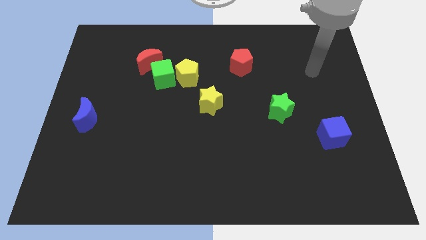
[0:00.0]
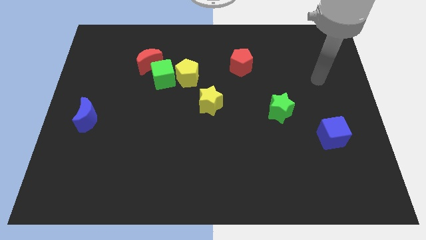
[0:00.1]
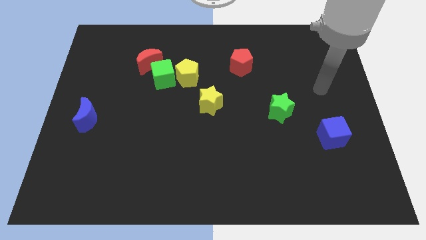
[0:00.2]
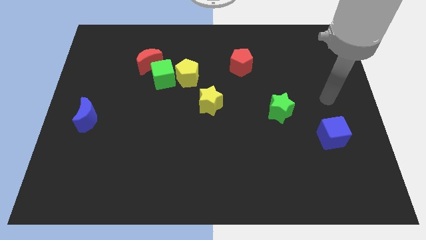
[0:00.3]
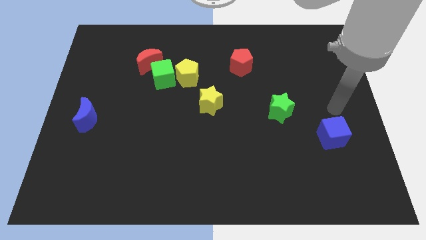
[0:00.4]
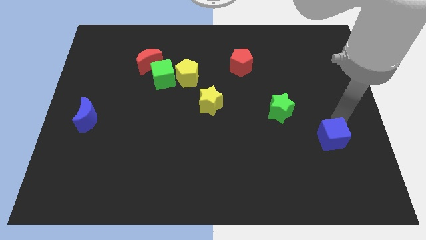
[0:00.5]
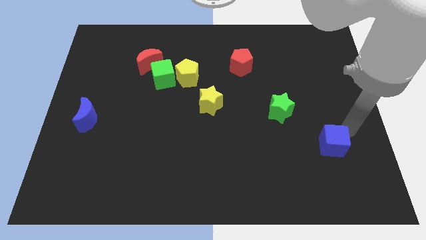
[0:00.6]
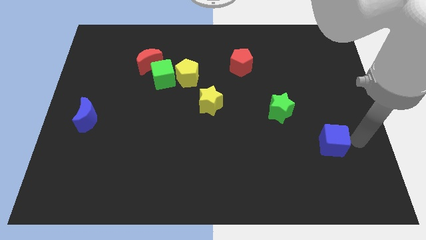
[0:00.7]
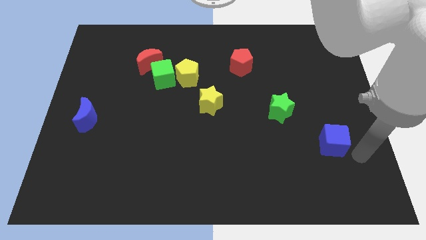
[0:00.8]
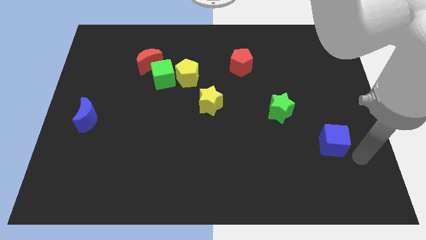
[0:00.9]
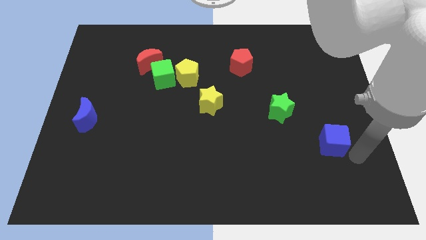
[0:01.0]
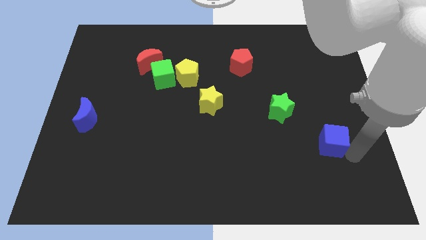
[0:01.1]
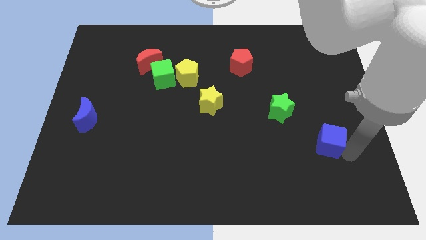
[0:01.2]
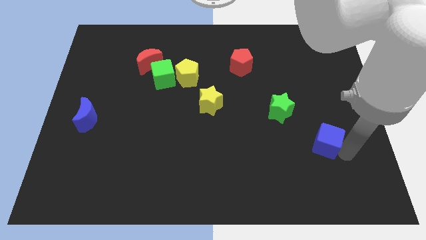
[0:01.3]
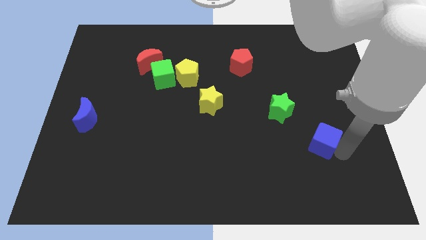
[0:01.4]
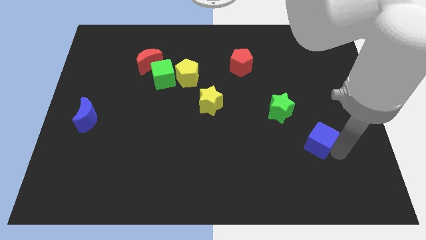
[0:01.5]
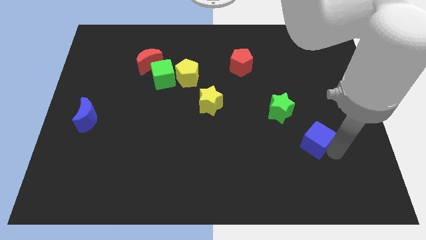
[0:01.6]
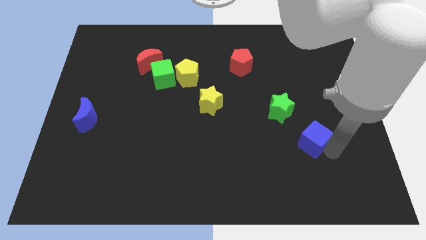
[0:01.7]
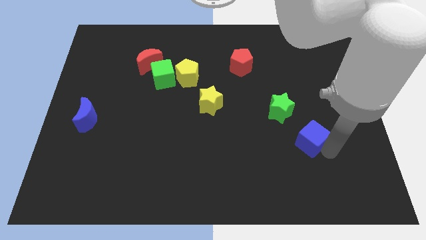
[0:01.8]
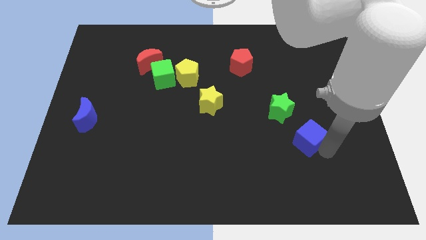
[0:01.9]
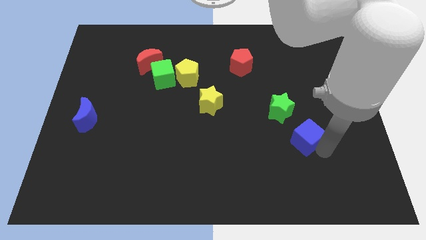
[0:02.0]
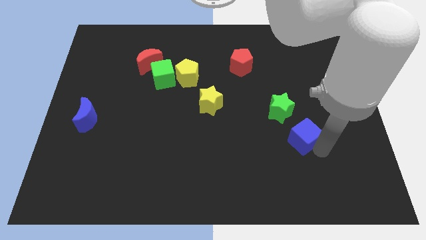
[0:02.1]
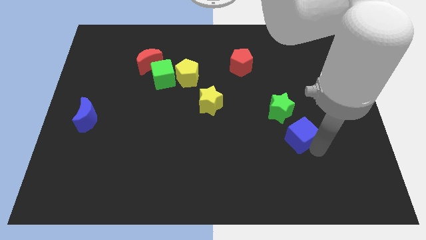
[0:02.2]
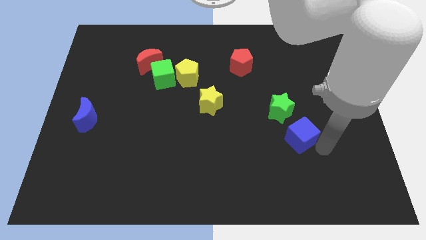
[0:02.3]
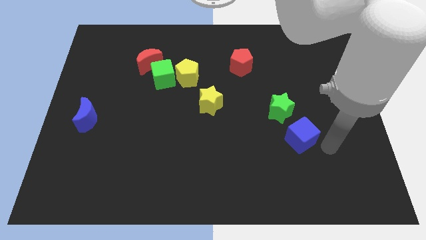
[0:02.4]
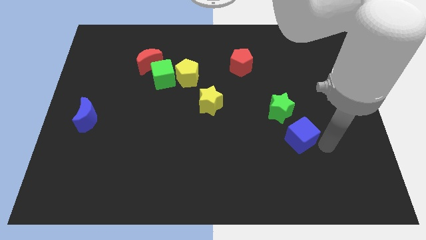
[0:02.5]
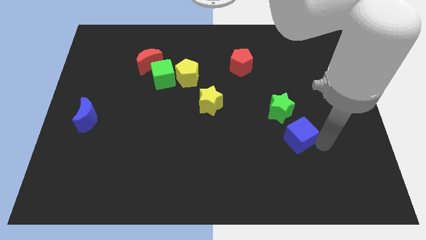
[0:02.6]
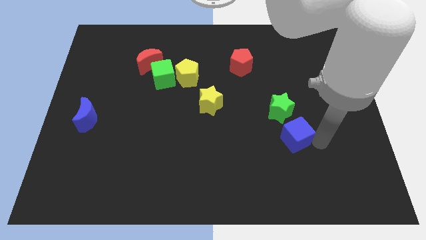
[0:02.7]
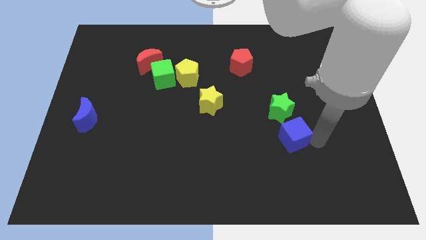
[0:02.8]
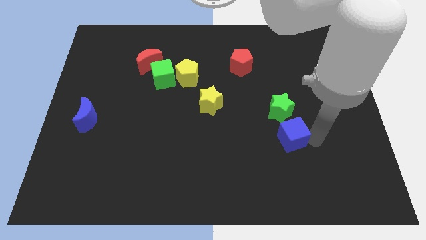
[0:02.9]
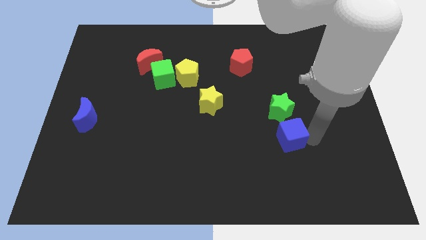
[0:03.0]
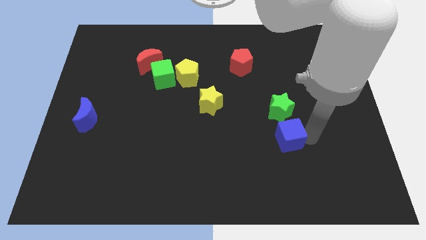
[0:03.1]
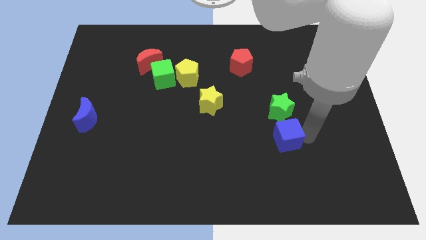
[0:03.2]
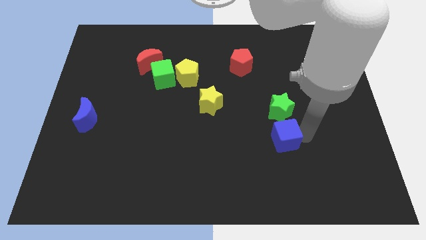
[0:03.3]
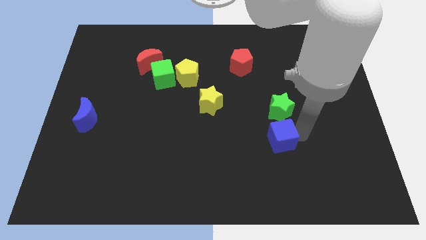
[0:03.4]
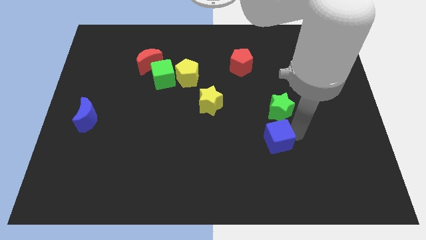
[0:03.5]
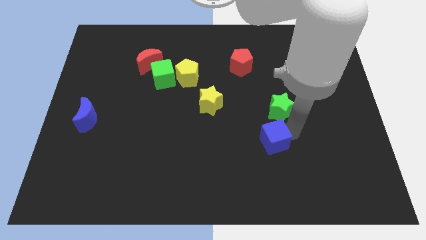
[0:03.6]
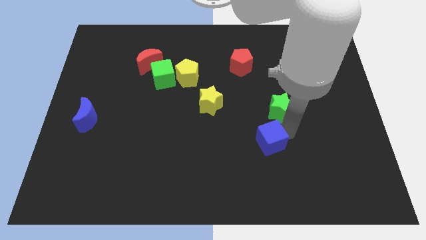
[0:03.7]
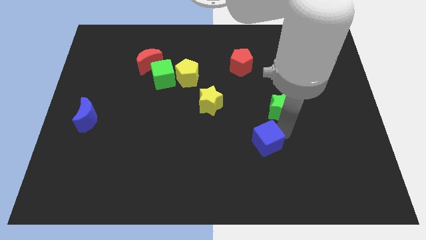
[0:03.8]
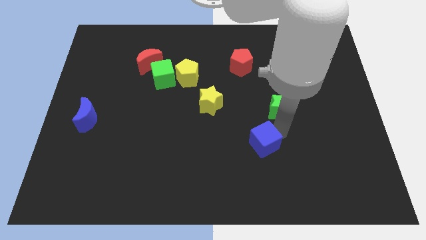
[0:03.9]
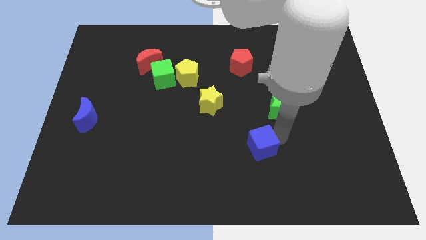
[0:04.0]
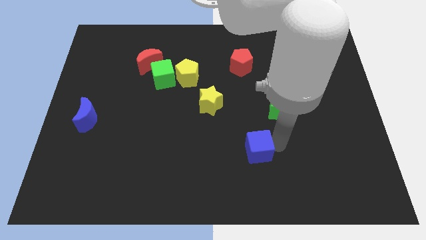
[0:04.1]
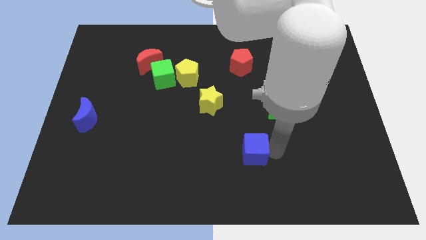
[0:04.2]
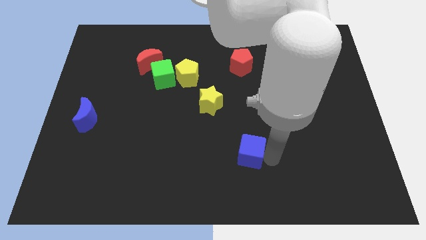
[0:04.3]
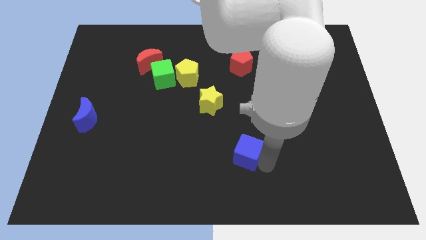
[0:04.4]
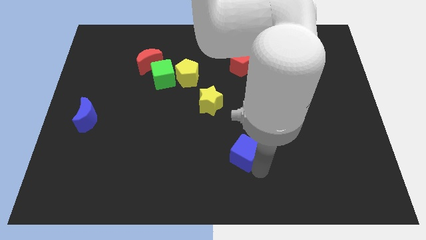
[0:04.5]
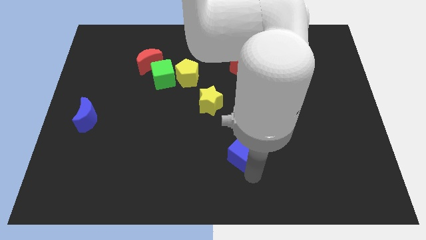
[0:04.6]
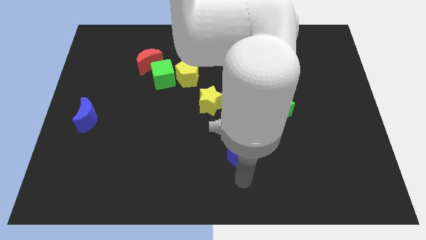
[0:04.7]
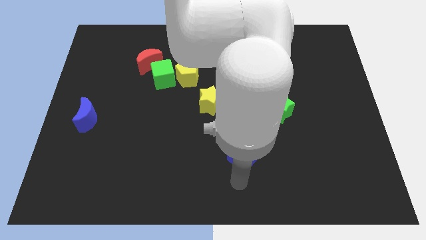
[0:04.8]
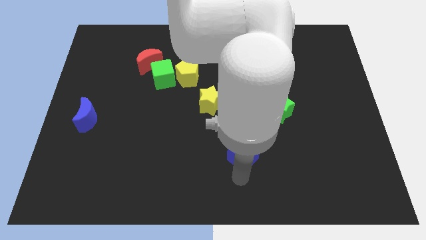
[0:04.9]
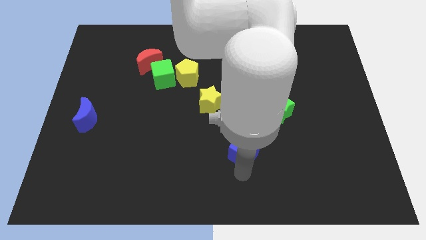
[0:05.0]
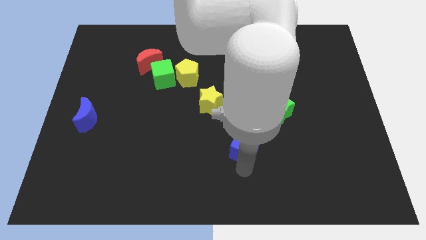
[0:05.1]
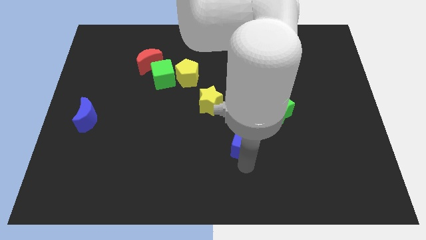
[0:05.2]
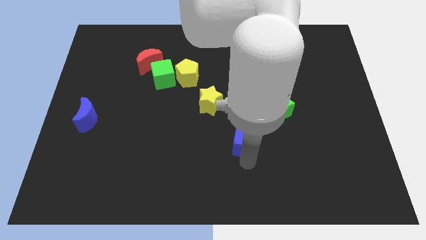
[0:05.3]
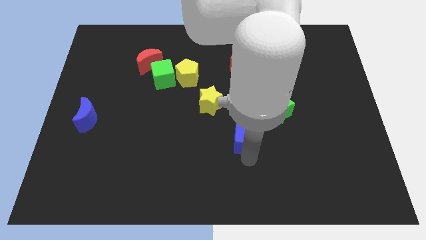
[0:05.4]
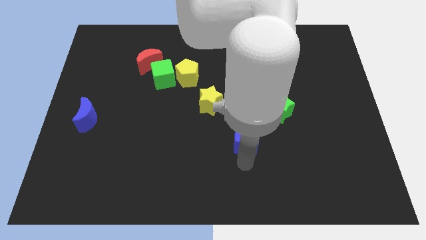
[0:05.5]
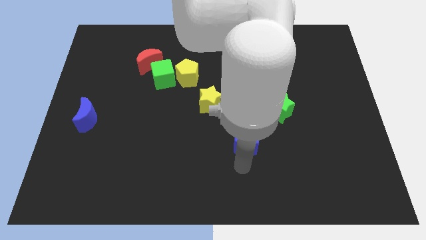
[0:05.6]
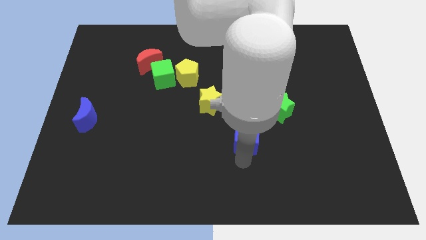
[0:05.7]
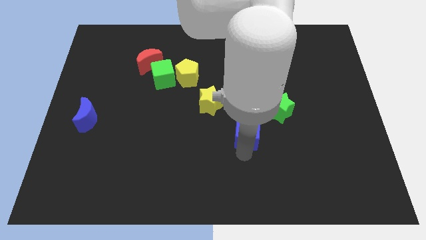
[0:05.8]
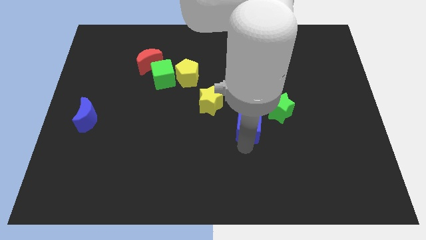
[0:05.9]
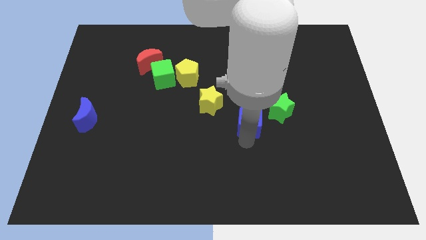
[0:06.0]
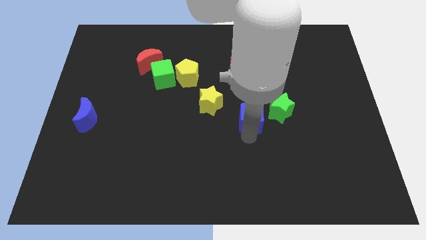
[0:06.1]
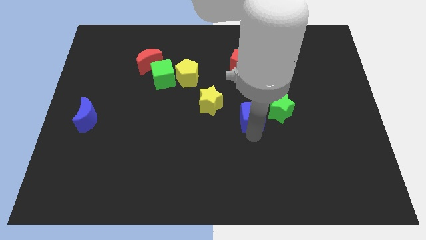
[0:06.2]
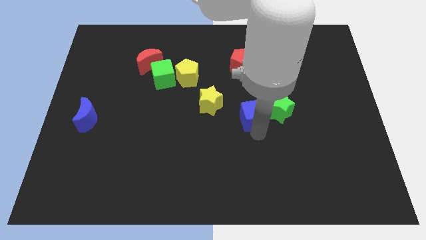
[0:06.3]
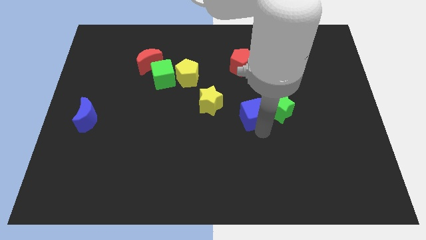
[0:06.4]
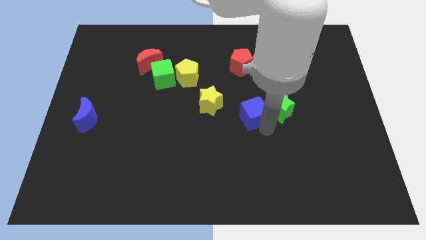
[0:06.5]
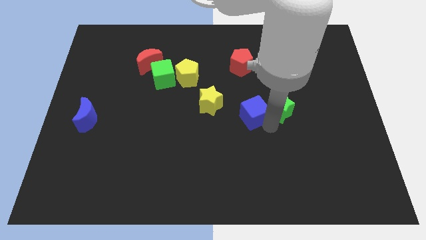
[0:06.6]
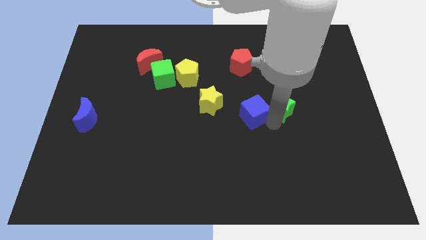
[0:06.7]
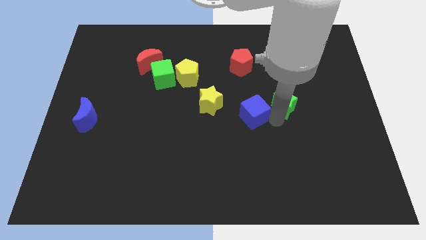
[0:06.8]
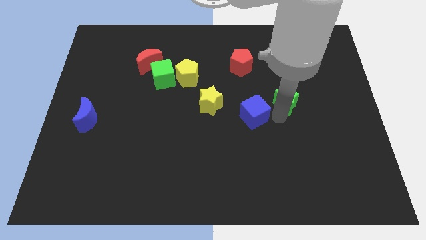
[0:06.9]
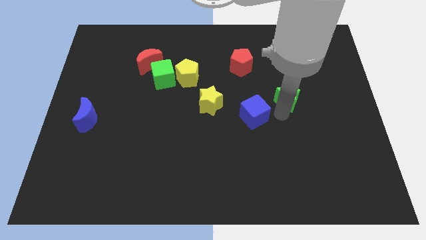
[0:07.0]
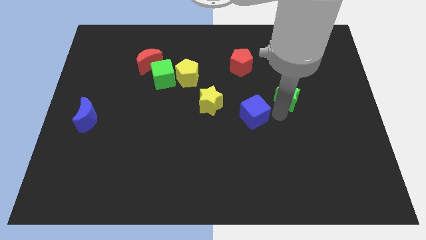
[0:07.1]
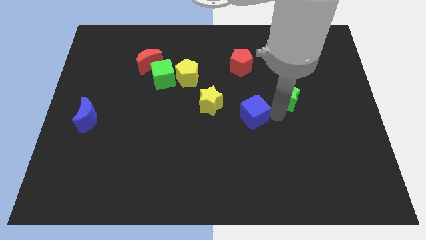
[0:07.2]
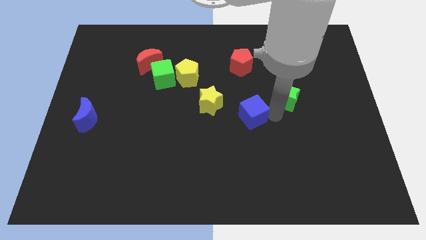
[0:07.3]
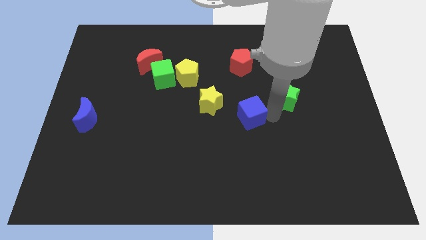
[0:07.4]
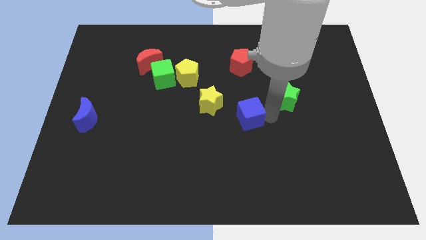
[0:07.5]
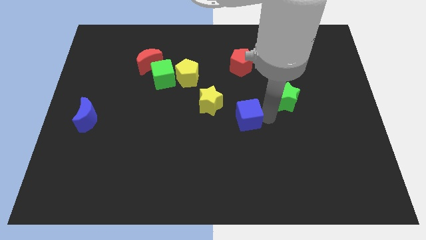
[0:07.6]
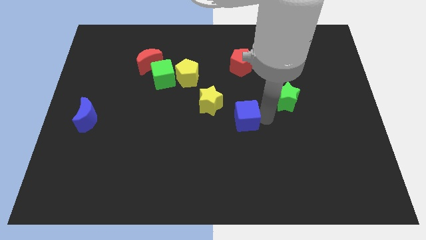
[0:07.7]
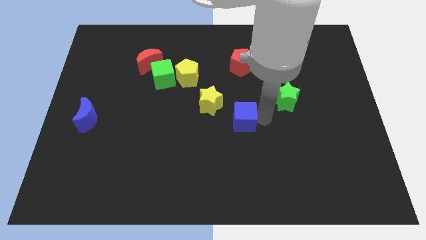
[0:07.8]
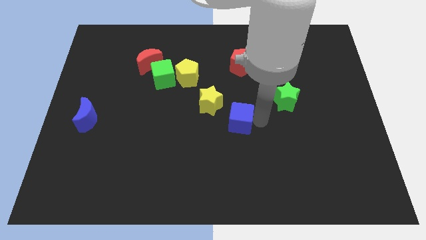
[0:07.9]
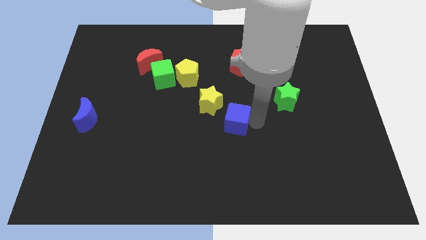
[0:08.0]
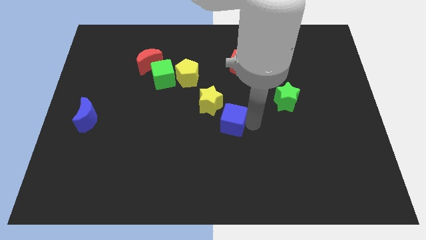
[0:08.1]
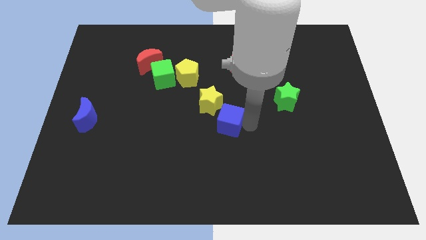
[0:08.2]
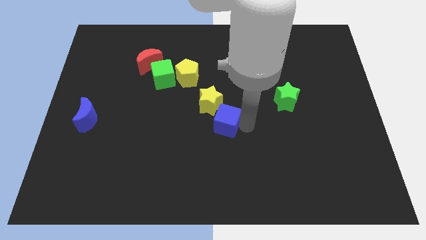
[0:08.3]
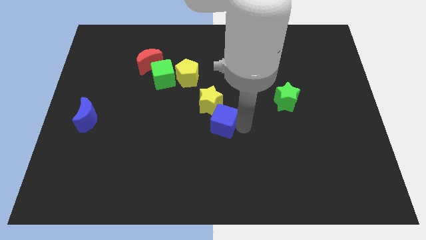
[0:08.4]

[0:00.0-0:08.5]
move the blue cube to the yellow star
